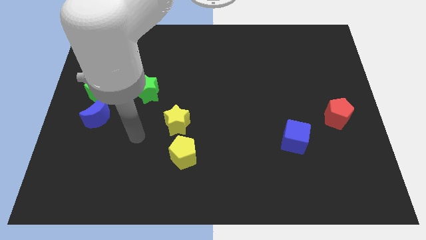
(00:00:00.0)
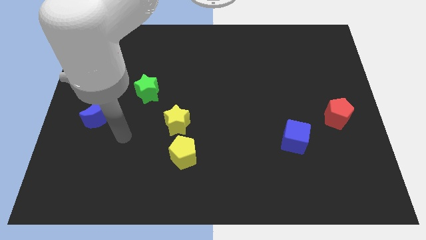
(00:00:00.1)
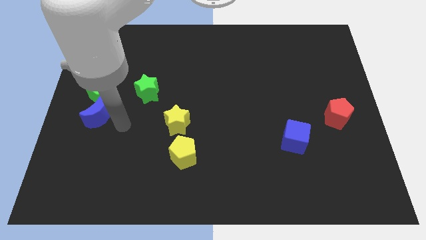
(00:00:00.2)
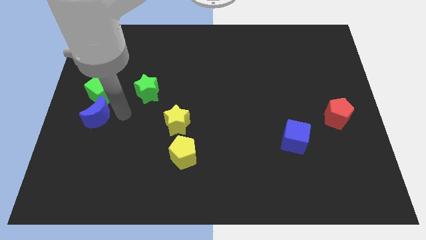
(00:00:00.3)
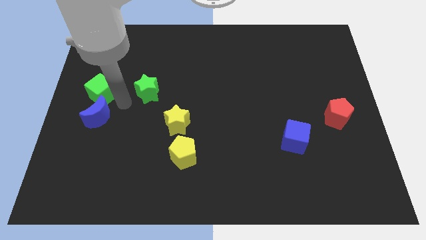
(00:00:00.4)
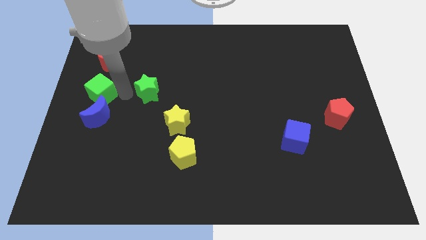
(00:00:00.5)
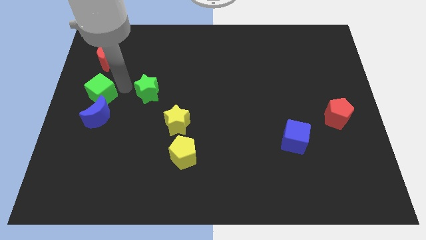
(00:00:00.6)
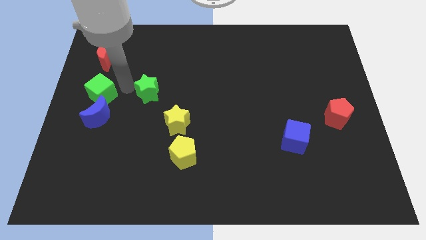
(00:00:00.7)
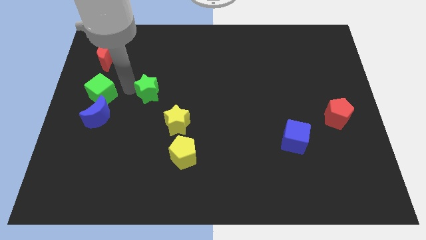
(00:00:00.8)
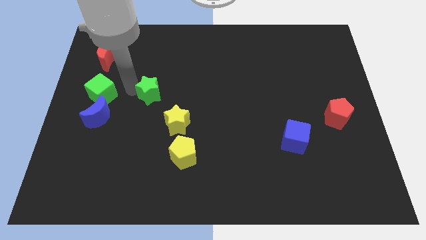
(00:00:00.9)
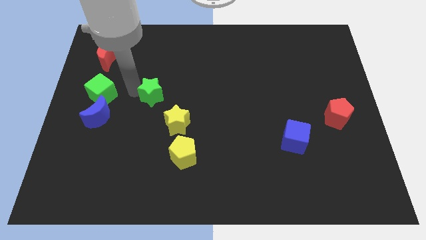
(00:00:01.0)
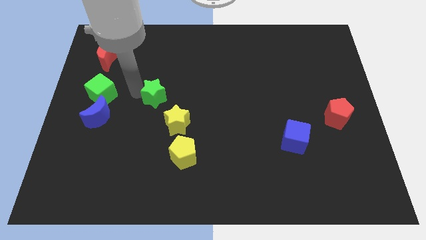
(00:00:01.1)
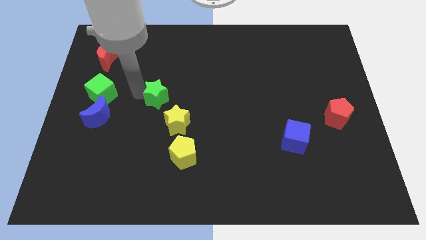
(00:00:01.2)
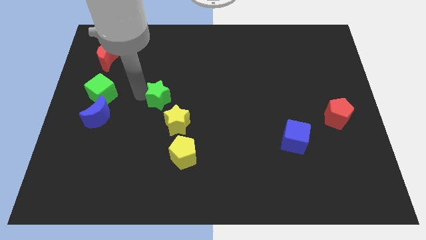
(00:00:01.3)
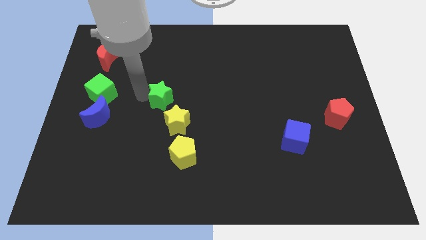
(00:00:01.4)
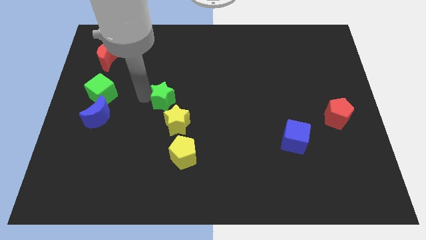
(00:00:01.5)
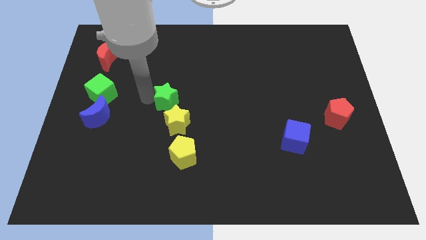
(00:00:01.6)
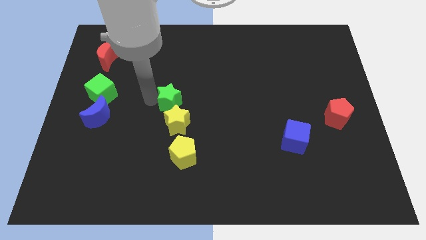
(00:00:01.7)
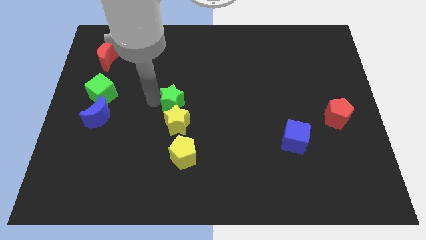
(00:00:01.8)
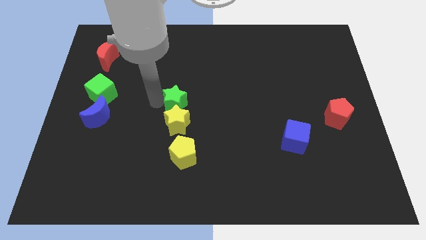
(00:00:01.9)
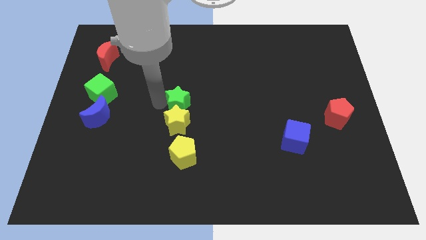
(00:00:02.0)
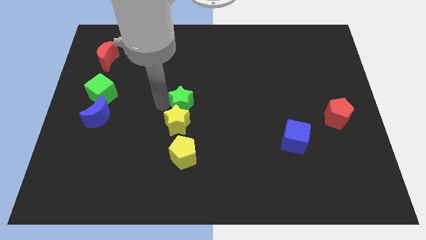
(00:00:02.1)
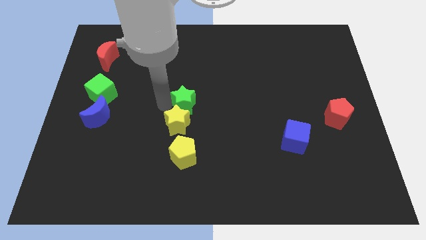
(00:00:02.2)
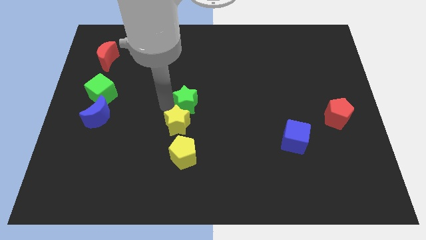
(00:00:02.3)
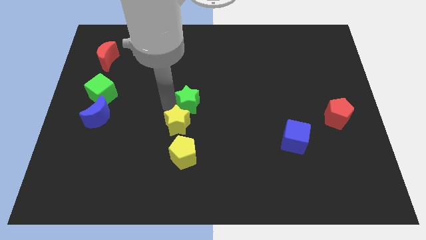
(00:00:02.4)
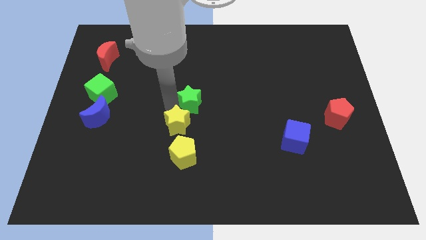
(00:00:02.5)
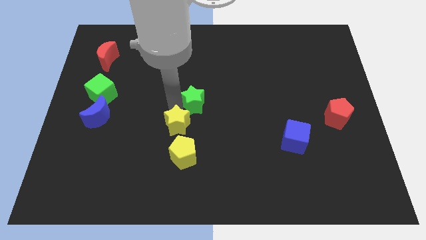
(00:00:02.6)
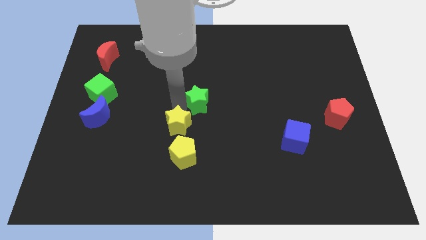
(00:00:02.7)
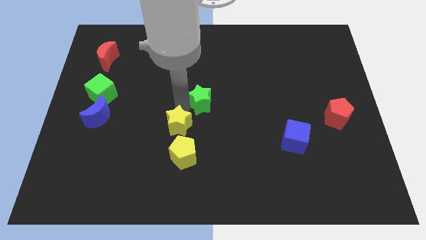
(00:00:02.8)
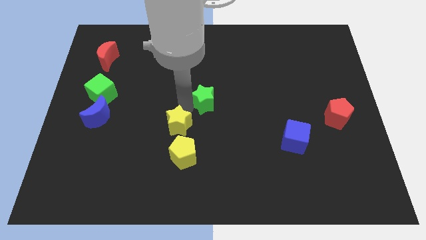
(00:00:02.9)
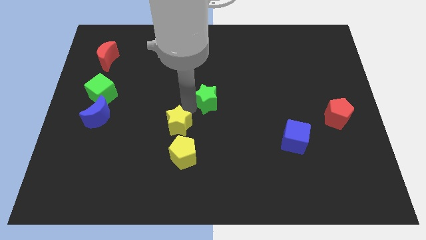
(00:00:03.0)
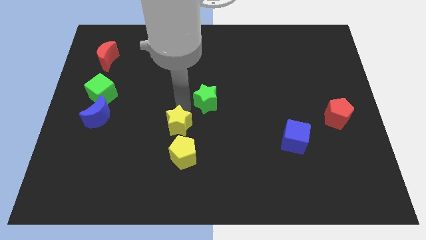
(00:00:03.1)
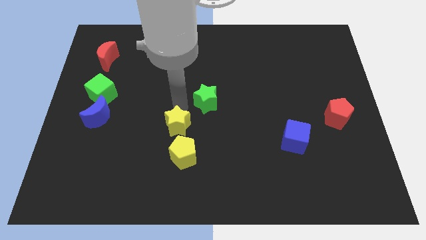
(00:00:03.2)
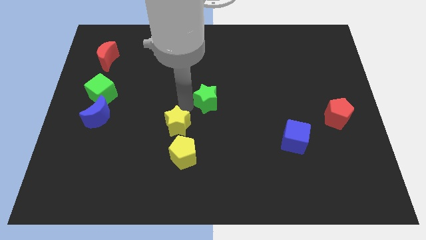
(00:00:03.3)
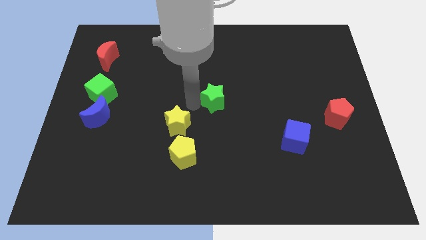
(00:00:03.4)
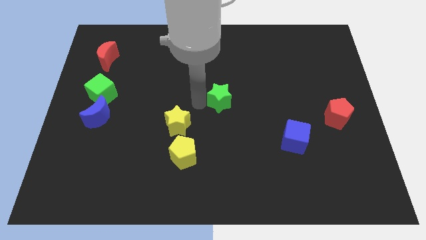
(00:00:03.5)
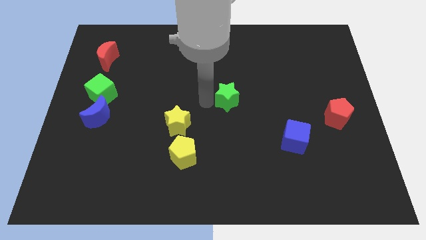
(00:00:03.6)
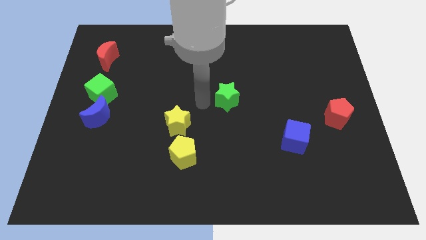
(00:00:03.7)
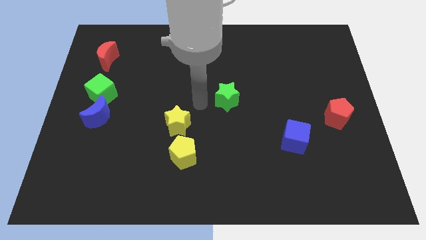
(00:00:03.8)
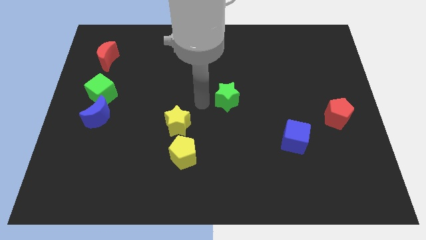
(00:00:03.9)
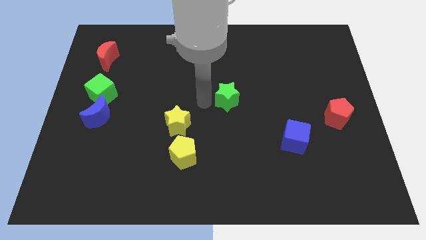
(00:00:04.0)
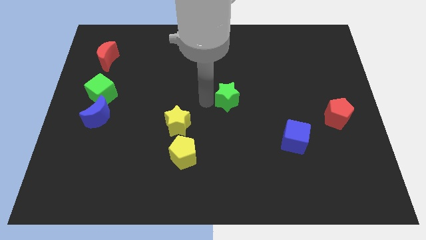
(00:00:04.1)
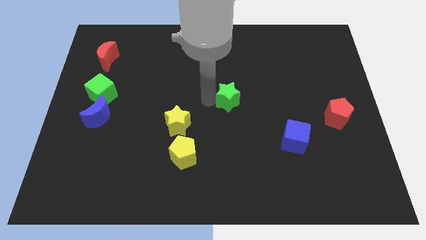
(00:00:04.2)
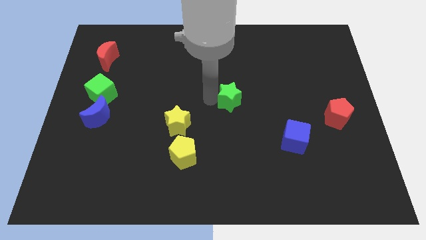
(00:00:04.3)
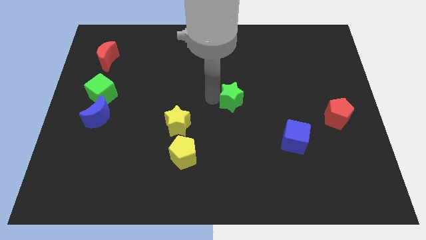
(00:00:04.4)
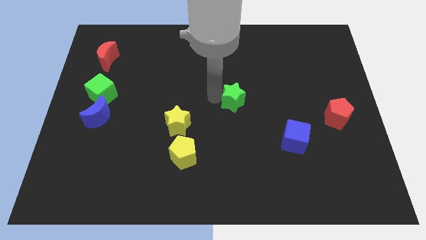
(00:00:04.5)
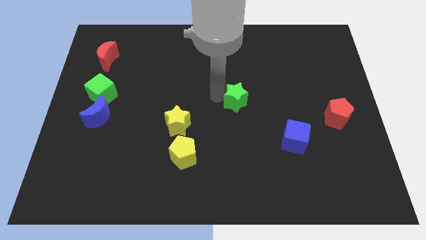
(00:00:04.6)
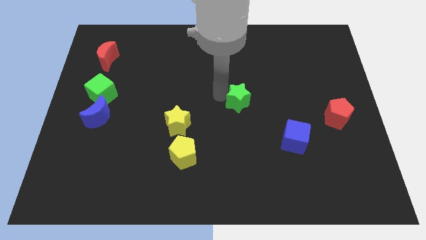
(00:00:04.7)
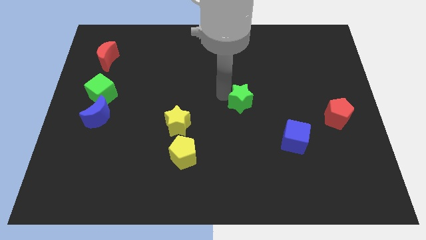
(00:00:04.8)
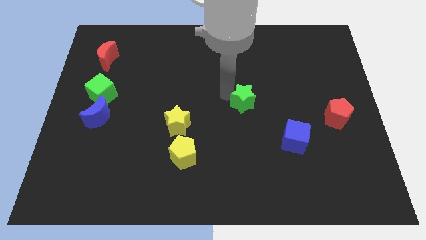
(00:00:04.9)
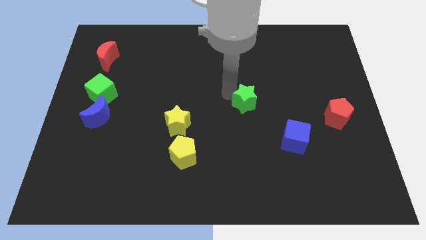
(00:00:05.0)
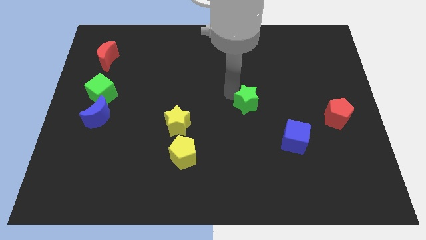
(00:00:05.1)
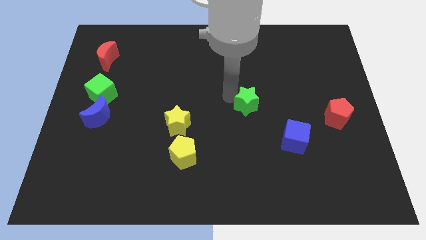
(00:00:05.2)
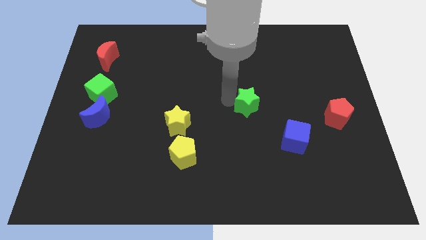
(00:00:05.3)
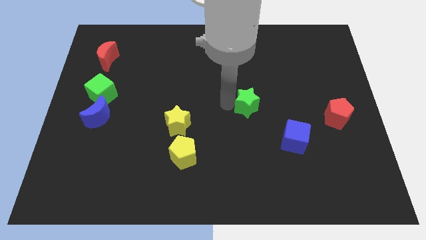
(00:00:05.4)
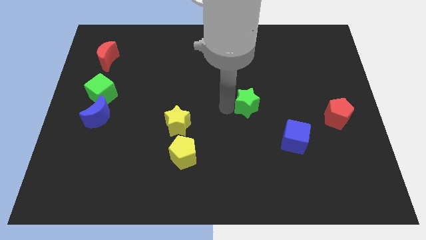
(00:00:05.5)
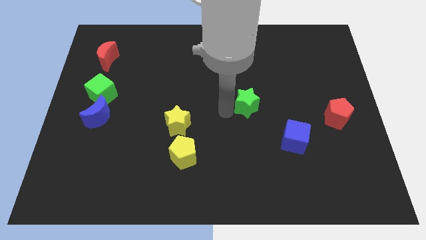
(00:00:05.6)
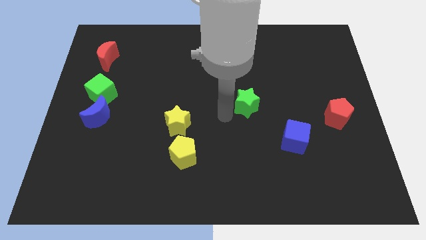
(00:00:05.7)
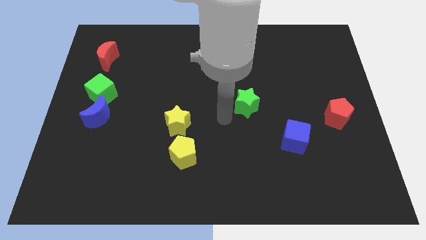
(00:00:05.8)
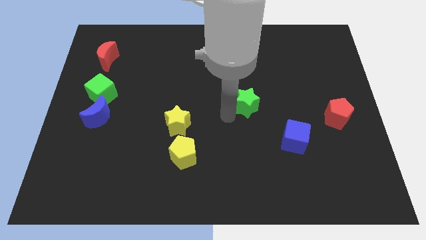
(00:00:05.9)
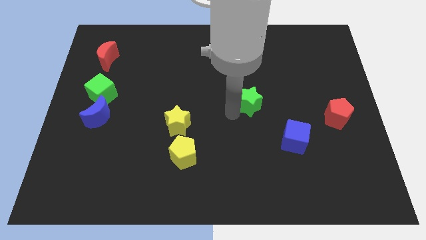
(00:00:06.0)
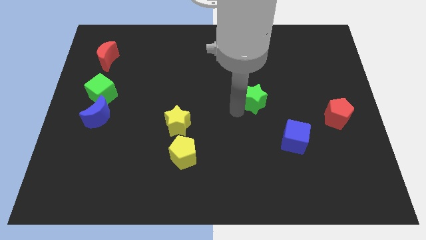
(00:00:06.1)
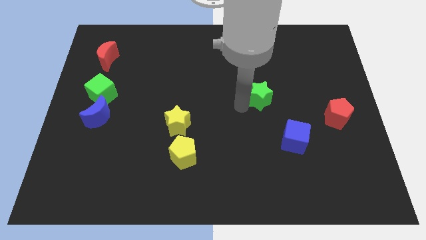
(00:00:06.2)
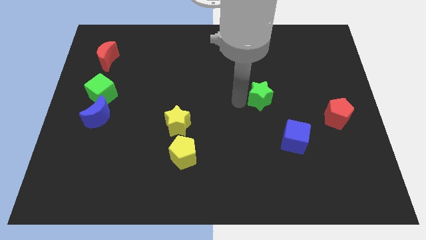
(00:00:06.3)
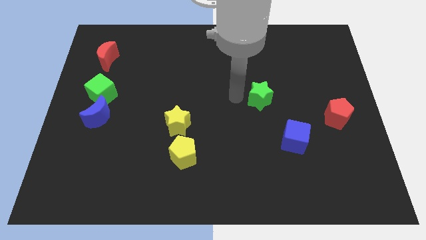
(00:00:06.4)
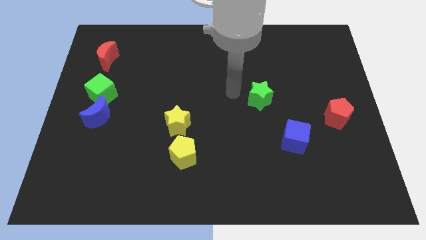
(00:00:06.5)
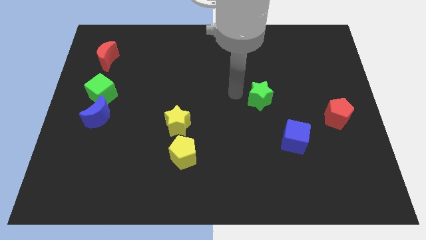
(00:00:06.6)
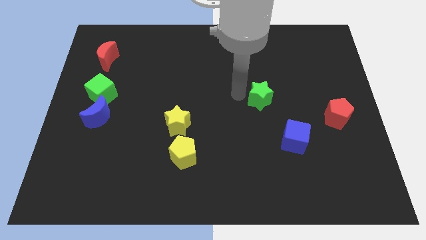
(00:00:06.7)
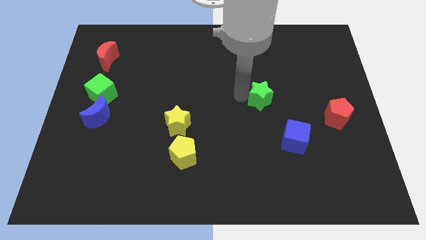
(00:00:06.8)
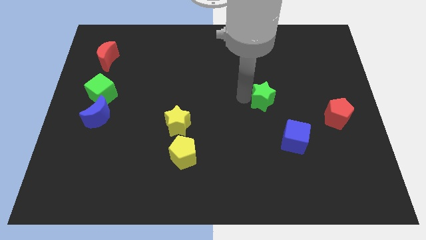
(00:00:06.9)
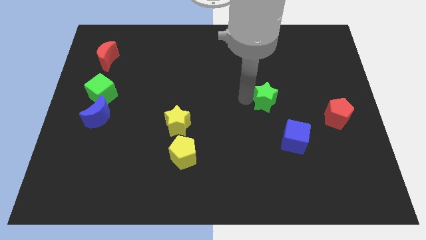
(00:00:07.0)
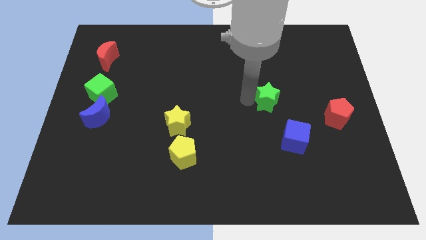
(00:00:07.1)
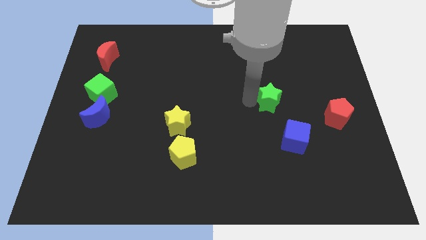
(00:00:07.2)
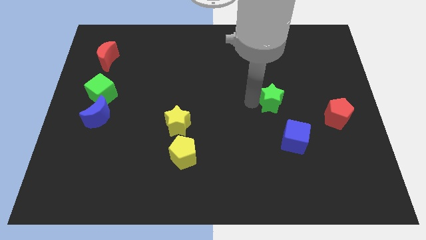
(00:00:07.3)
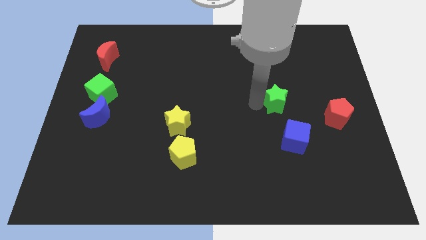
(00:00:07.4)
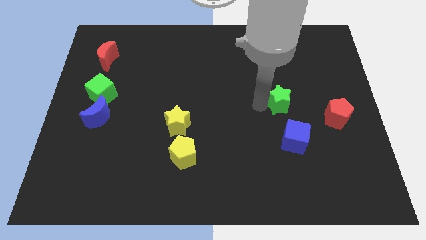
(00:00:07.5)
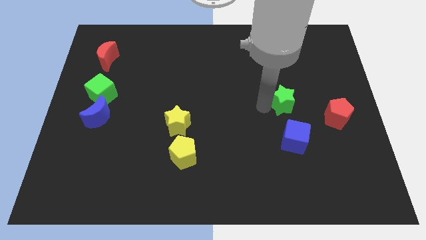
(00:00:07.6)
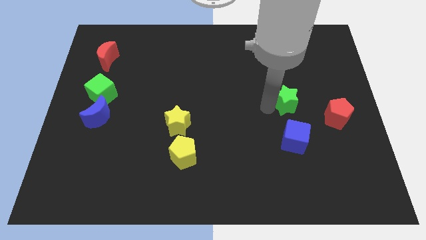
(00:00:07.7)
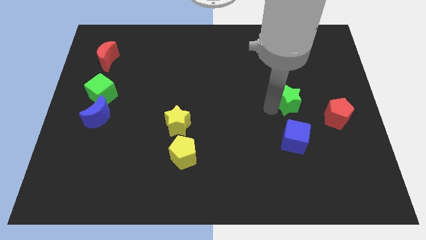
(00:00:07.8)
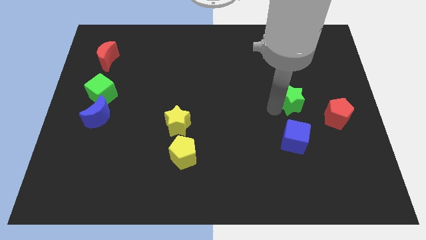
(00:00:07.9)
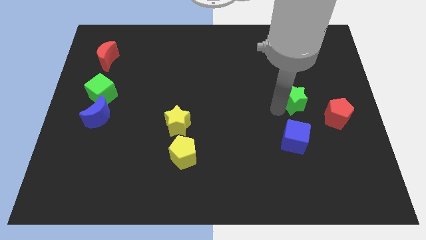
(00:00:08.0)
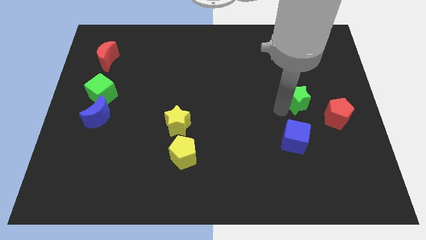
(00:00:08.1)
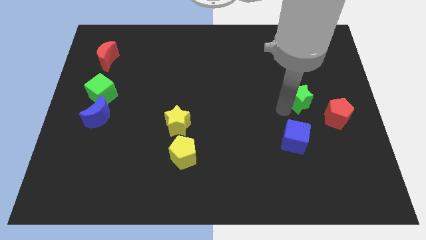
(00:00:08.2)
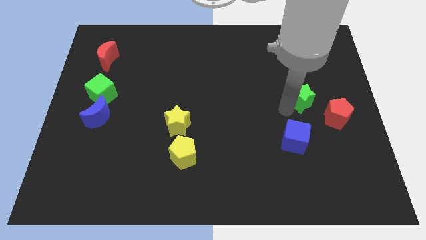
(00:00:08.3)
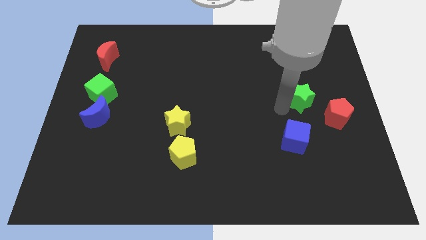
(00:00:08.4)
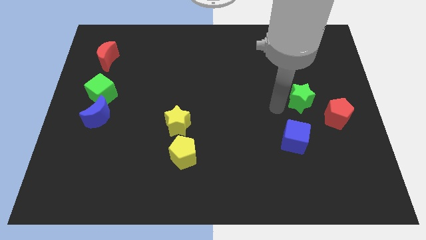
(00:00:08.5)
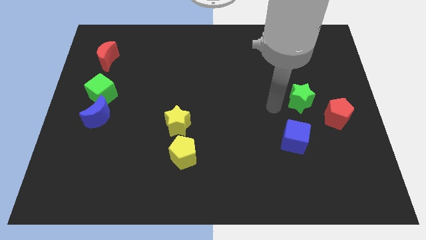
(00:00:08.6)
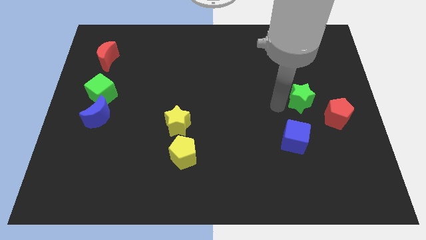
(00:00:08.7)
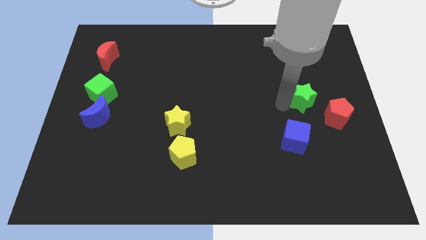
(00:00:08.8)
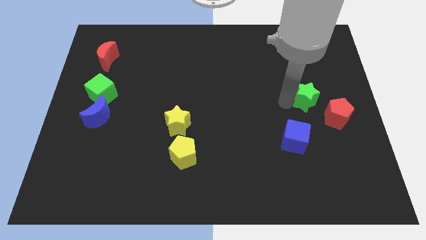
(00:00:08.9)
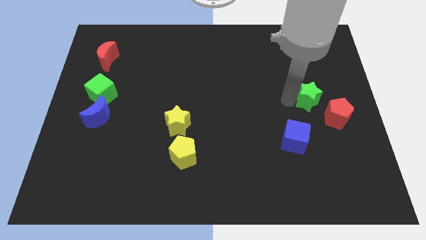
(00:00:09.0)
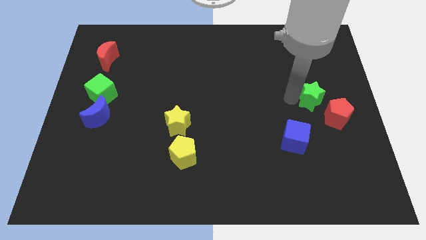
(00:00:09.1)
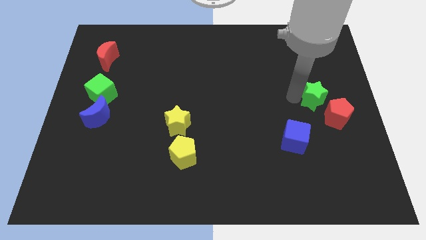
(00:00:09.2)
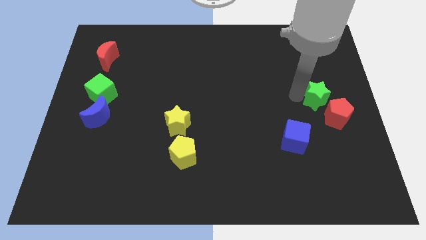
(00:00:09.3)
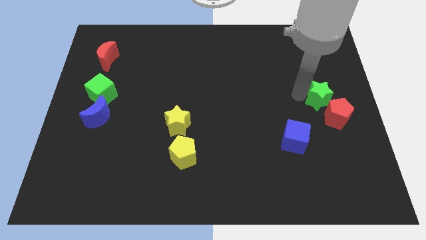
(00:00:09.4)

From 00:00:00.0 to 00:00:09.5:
slide the green star to the right side of the board
